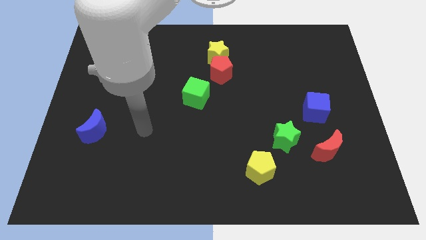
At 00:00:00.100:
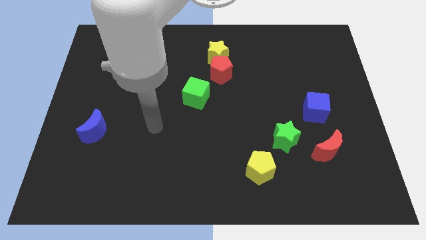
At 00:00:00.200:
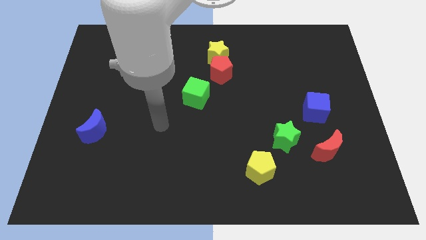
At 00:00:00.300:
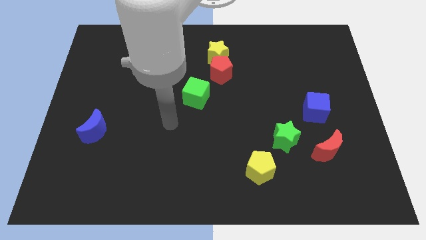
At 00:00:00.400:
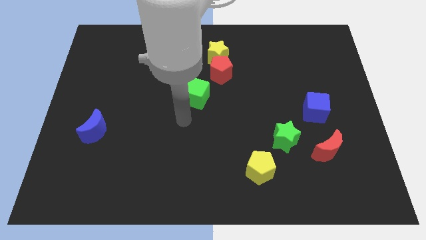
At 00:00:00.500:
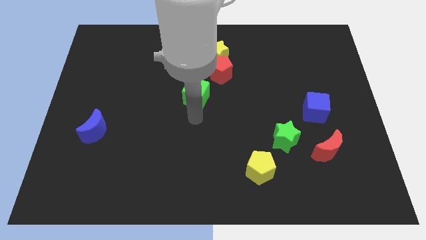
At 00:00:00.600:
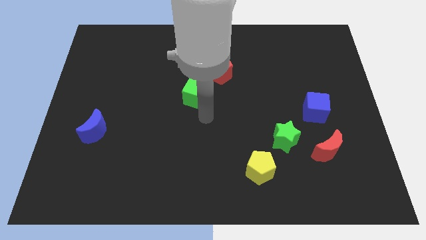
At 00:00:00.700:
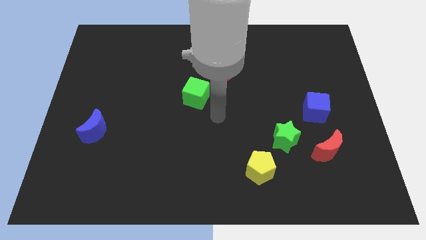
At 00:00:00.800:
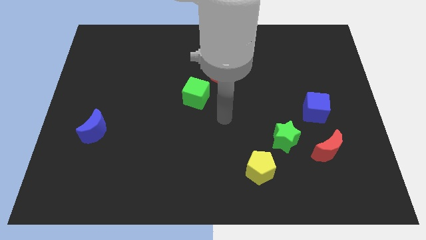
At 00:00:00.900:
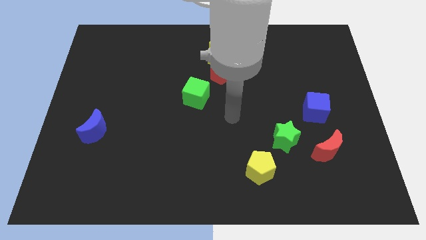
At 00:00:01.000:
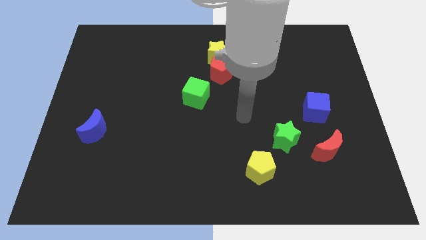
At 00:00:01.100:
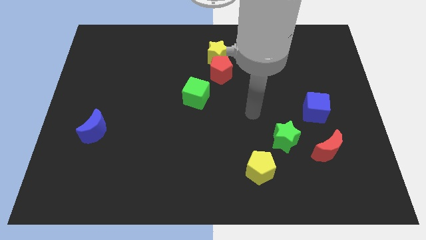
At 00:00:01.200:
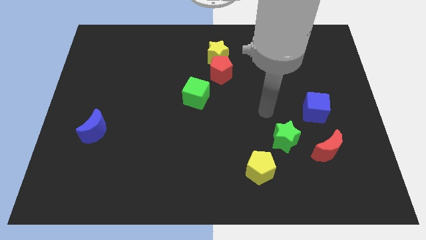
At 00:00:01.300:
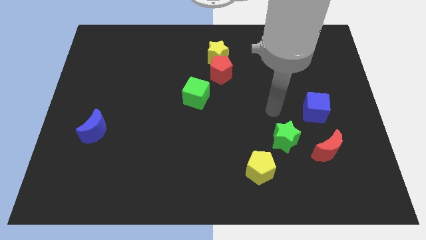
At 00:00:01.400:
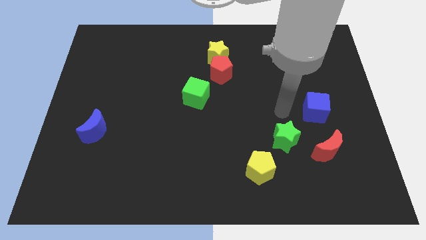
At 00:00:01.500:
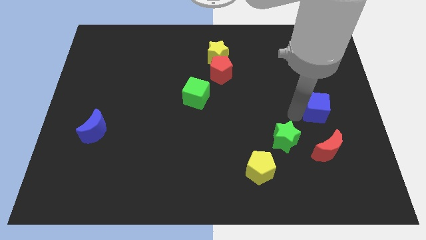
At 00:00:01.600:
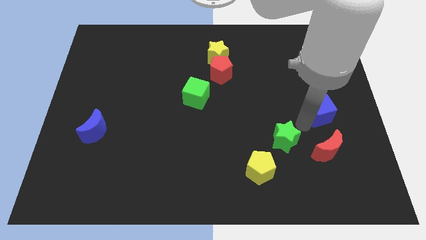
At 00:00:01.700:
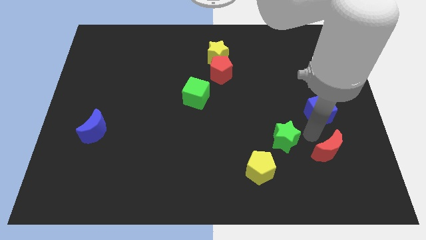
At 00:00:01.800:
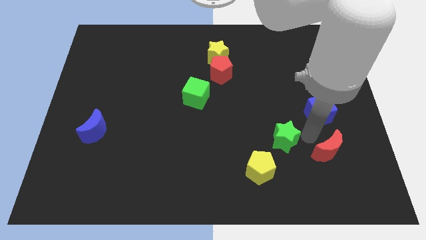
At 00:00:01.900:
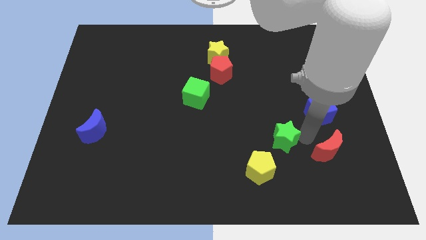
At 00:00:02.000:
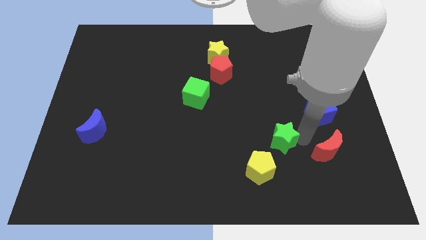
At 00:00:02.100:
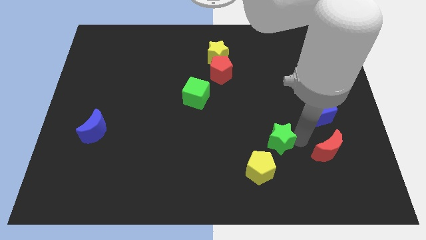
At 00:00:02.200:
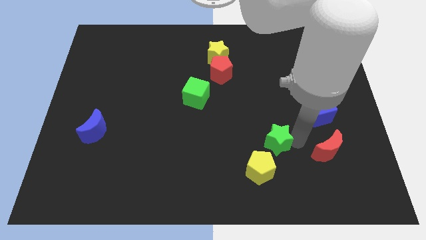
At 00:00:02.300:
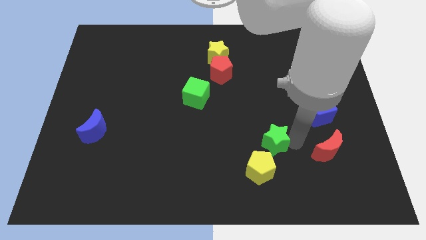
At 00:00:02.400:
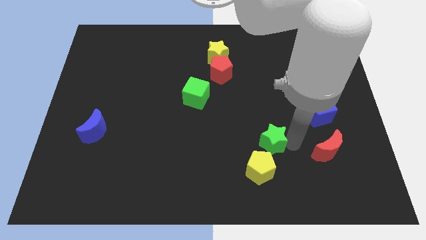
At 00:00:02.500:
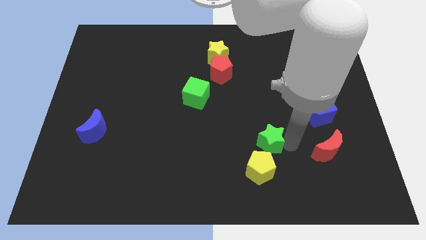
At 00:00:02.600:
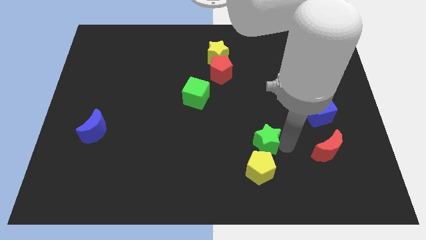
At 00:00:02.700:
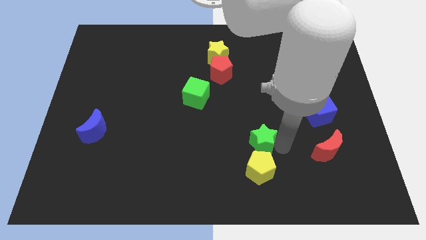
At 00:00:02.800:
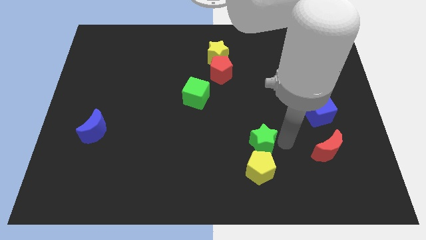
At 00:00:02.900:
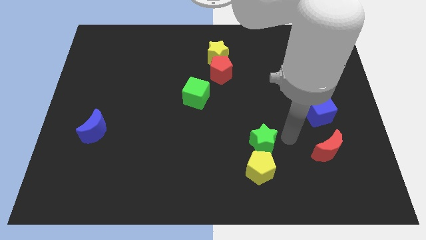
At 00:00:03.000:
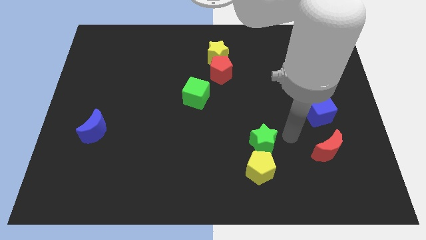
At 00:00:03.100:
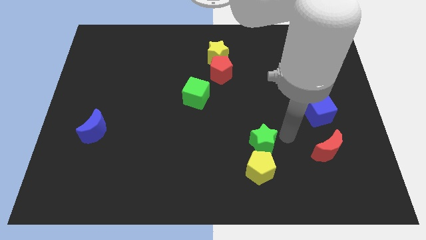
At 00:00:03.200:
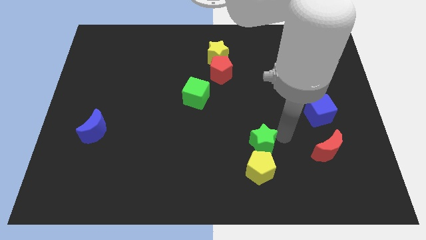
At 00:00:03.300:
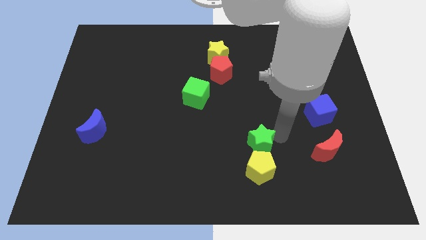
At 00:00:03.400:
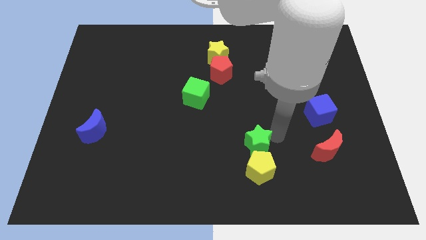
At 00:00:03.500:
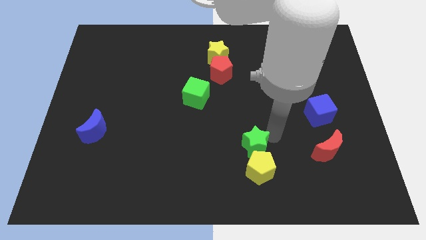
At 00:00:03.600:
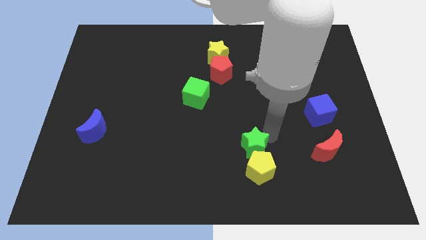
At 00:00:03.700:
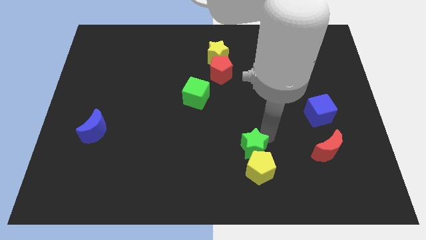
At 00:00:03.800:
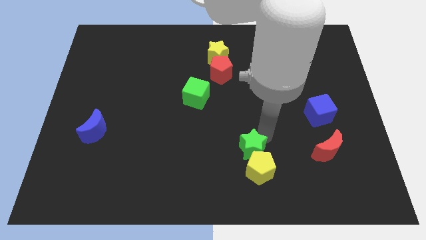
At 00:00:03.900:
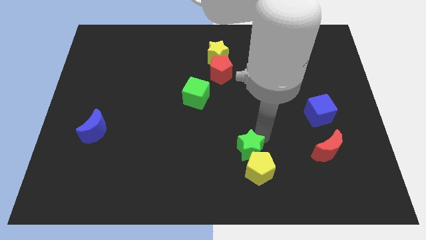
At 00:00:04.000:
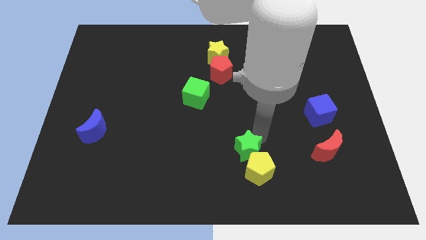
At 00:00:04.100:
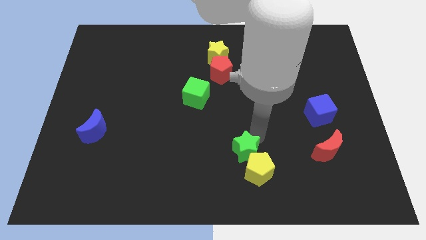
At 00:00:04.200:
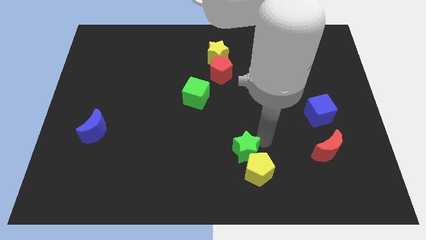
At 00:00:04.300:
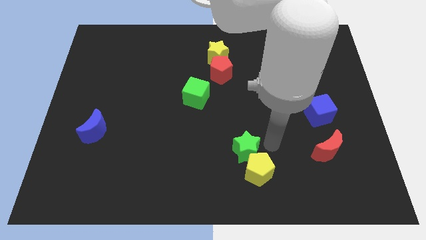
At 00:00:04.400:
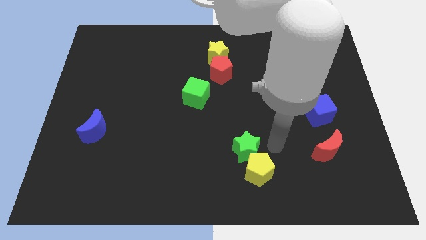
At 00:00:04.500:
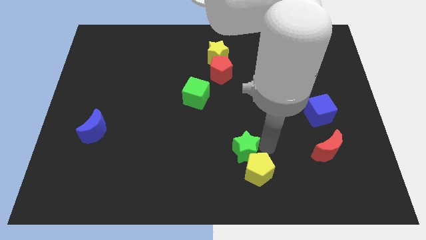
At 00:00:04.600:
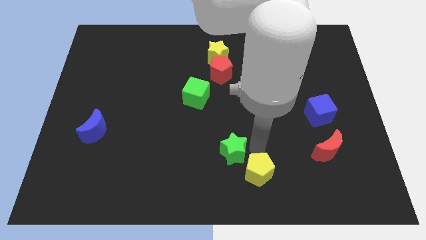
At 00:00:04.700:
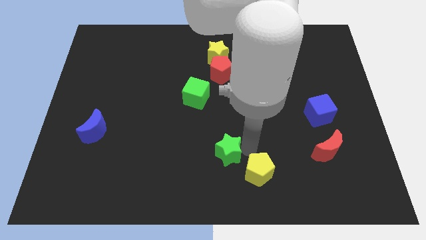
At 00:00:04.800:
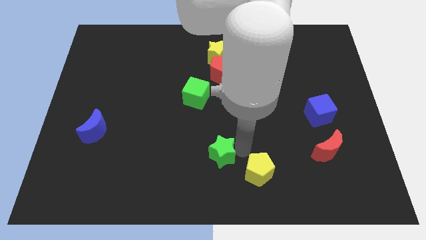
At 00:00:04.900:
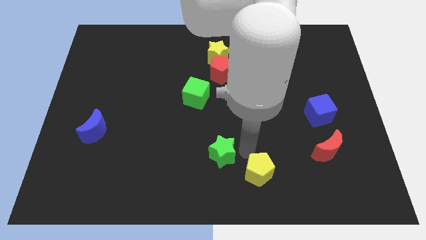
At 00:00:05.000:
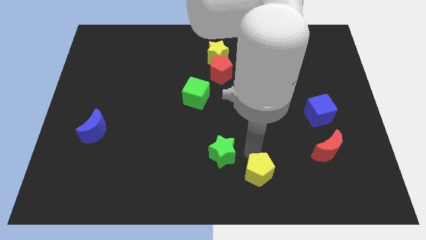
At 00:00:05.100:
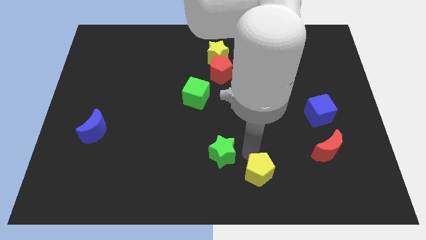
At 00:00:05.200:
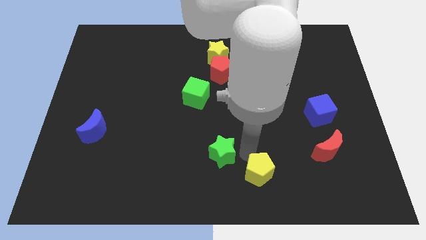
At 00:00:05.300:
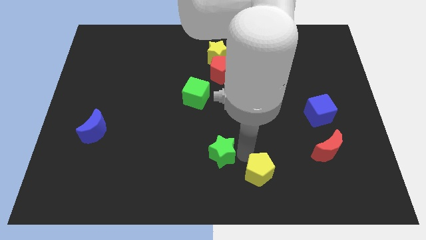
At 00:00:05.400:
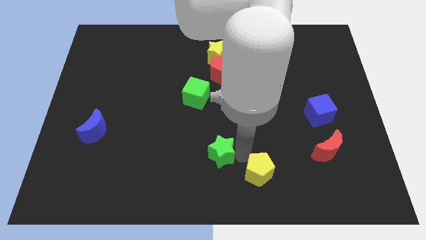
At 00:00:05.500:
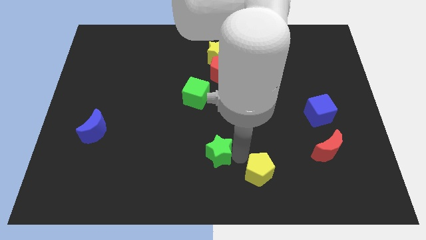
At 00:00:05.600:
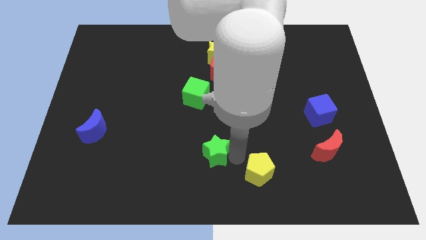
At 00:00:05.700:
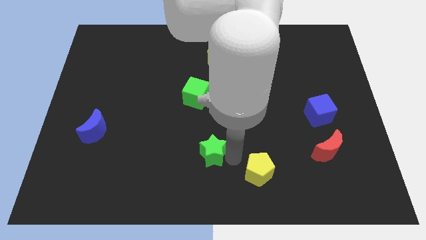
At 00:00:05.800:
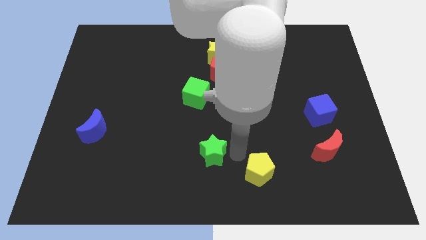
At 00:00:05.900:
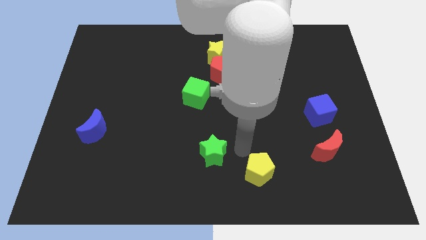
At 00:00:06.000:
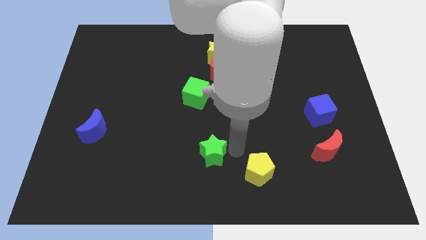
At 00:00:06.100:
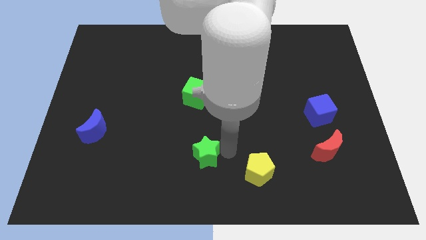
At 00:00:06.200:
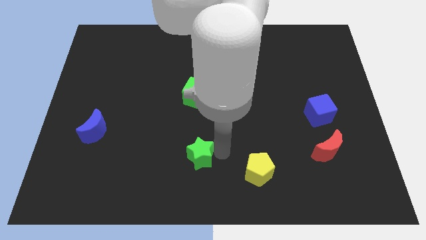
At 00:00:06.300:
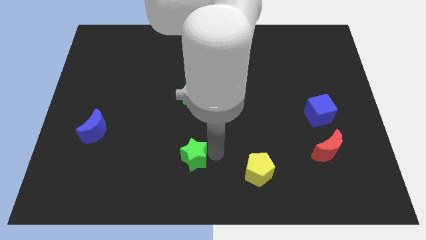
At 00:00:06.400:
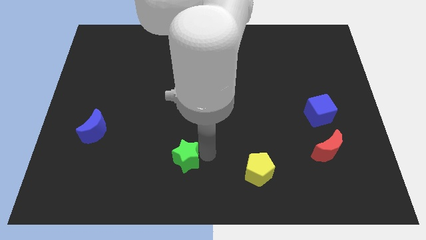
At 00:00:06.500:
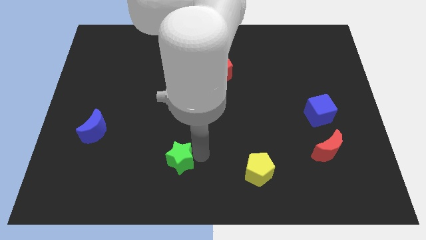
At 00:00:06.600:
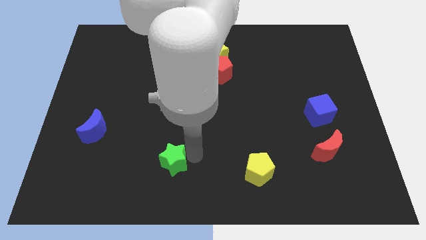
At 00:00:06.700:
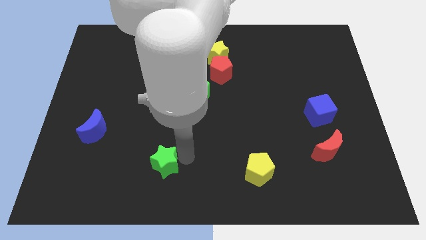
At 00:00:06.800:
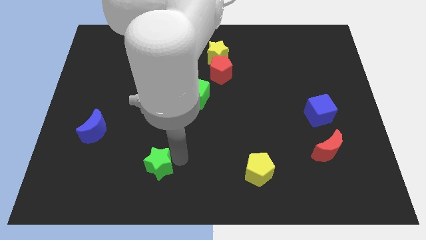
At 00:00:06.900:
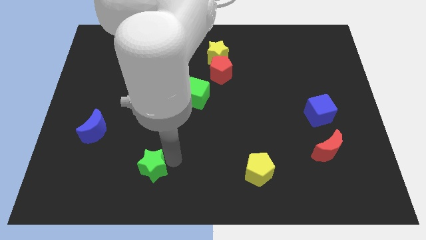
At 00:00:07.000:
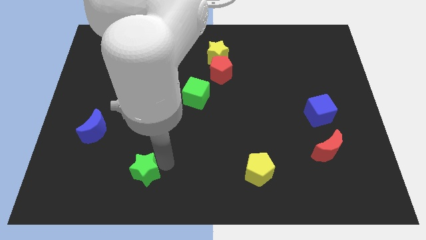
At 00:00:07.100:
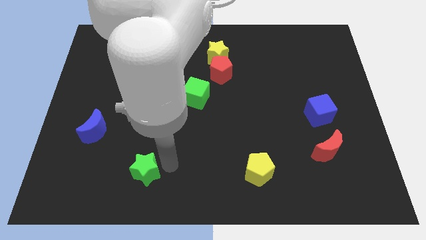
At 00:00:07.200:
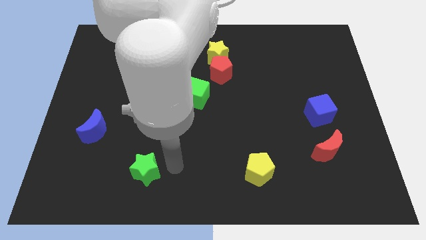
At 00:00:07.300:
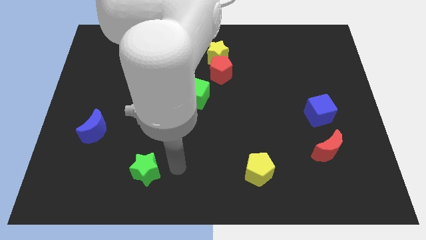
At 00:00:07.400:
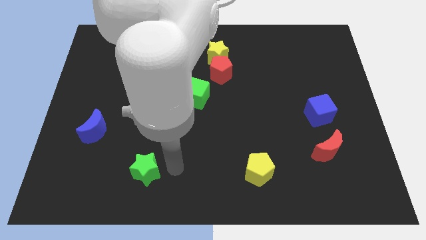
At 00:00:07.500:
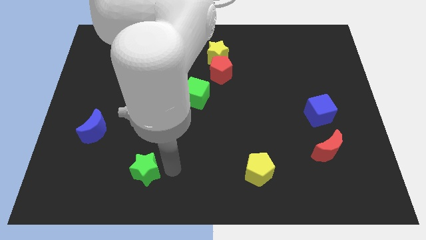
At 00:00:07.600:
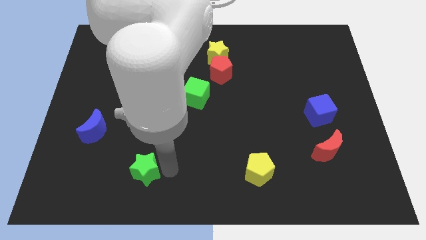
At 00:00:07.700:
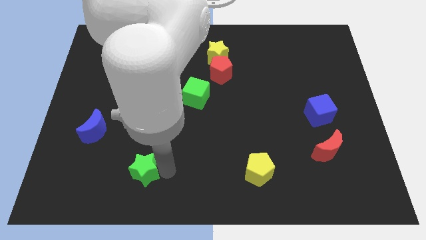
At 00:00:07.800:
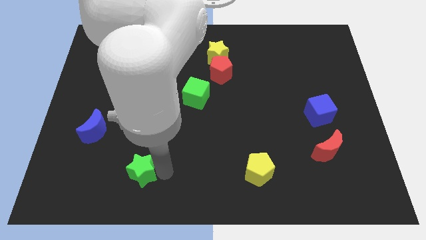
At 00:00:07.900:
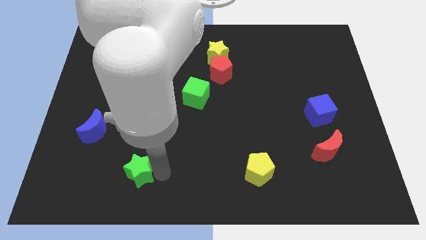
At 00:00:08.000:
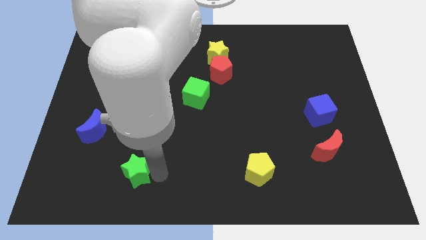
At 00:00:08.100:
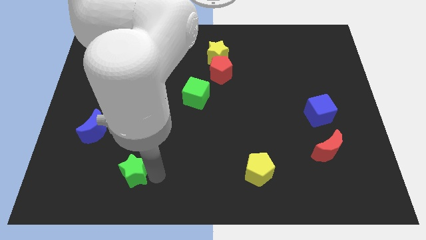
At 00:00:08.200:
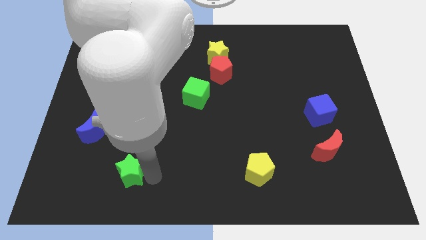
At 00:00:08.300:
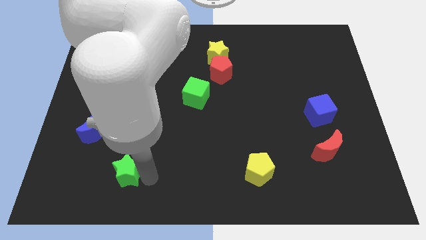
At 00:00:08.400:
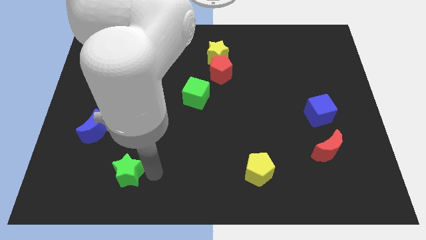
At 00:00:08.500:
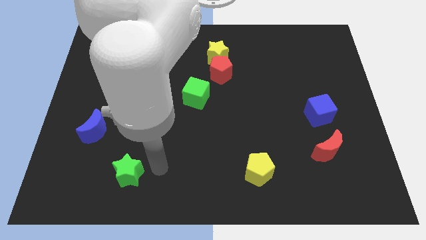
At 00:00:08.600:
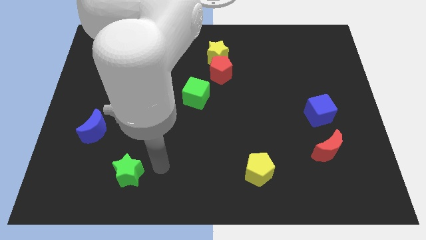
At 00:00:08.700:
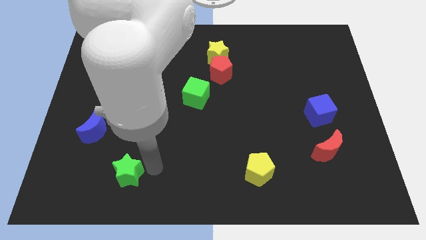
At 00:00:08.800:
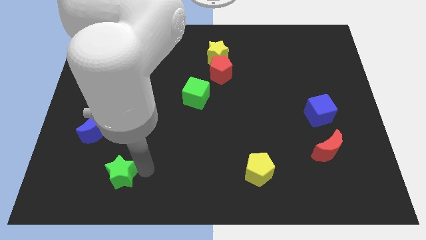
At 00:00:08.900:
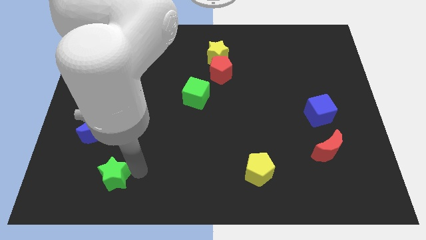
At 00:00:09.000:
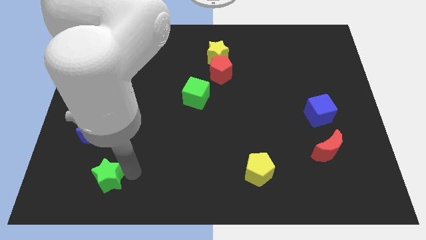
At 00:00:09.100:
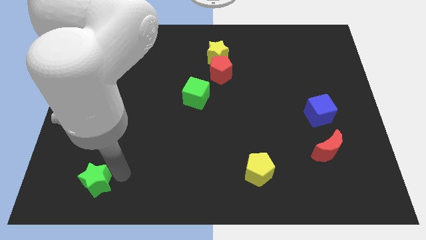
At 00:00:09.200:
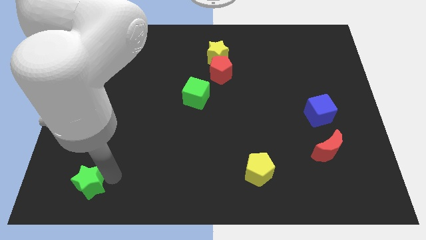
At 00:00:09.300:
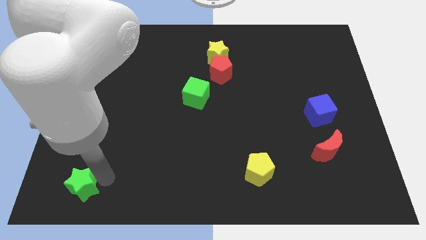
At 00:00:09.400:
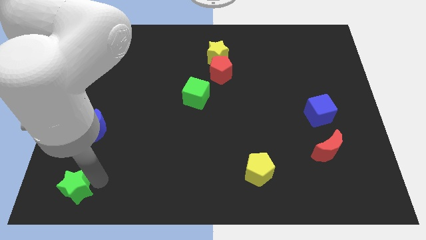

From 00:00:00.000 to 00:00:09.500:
move the green star to the bottom left corner
